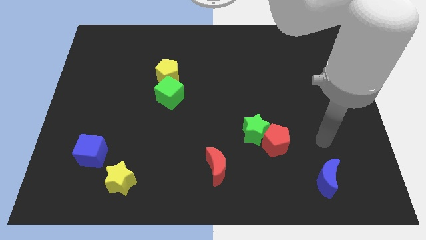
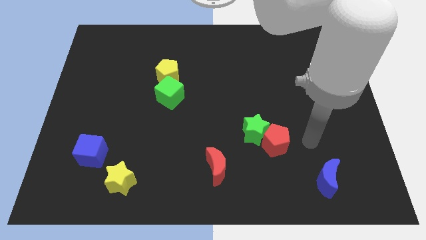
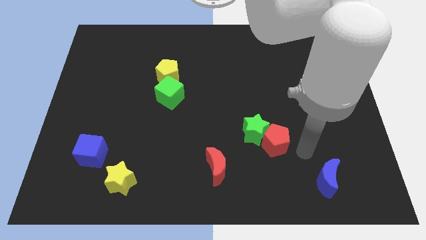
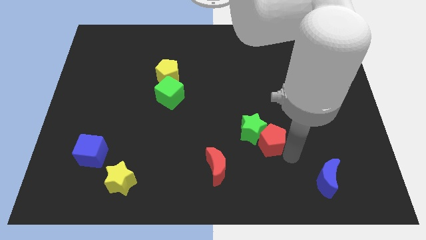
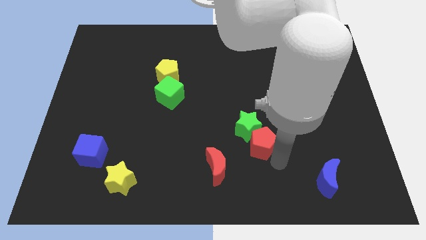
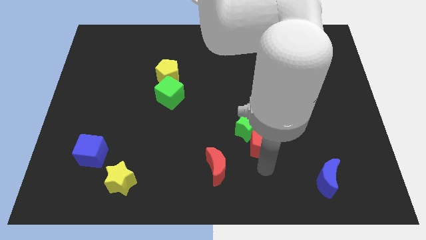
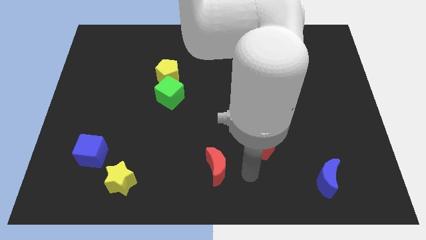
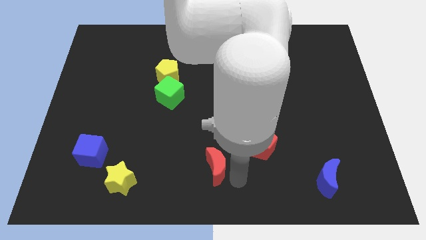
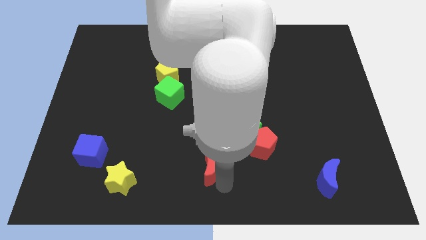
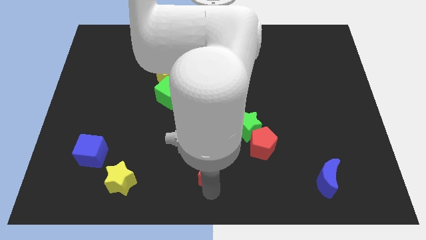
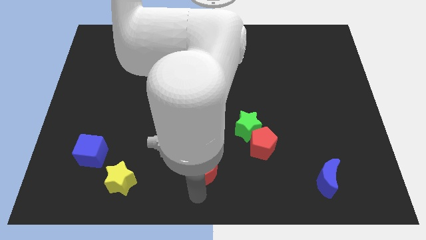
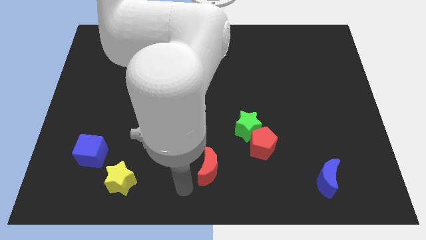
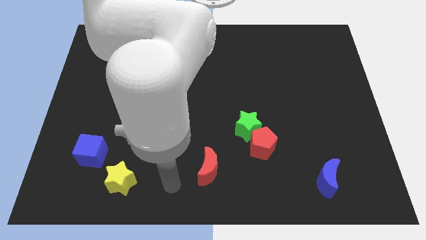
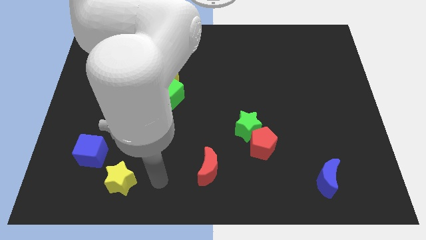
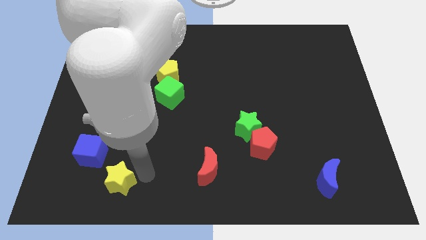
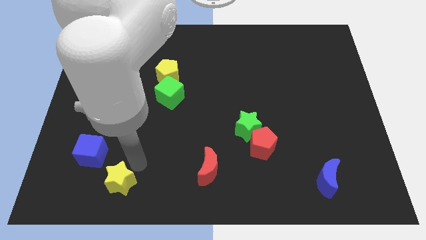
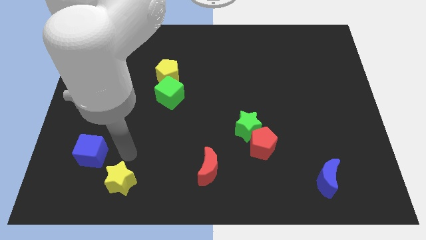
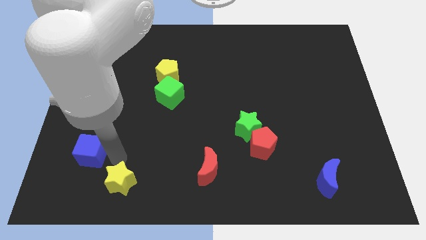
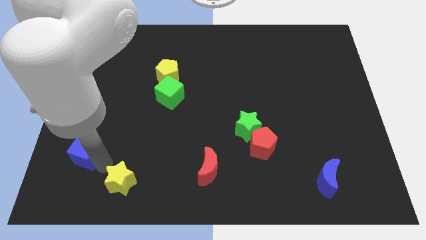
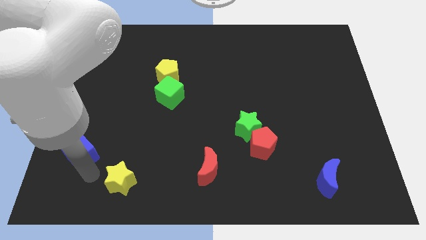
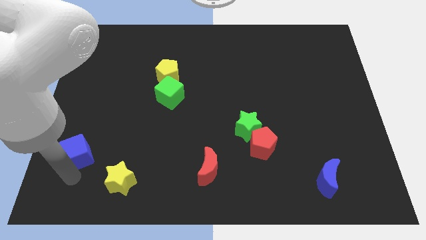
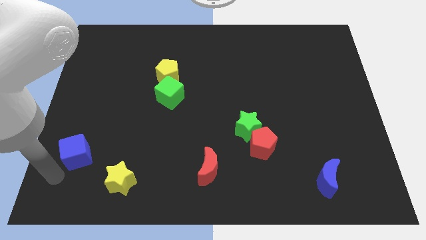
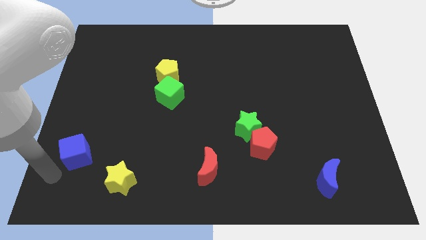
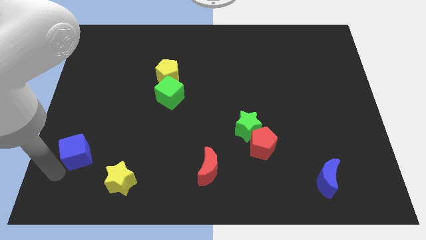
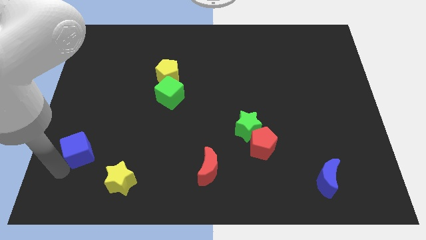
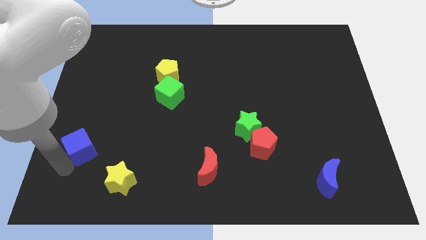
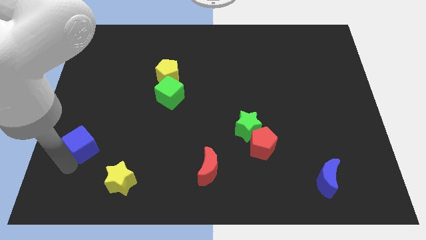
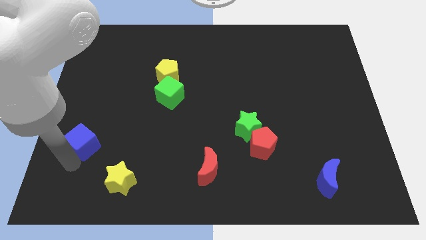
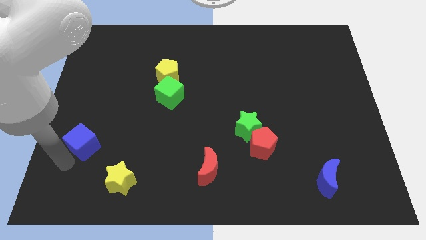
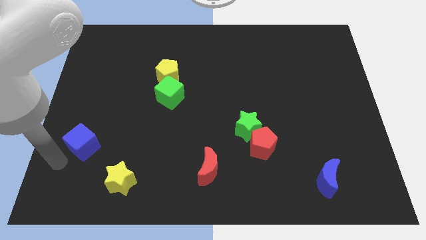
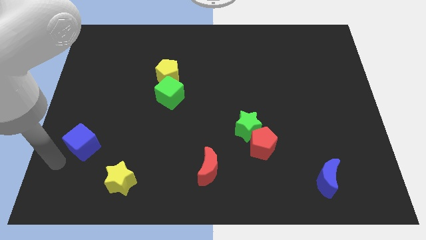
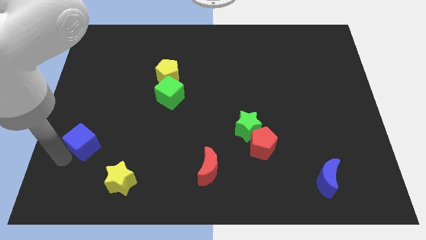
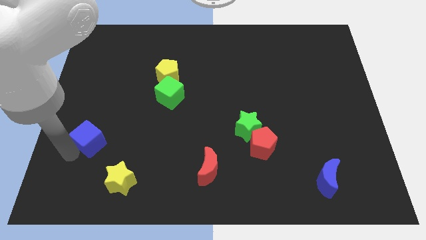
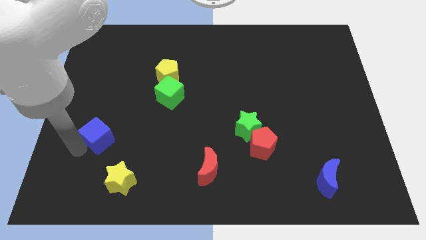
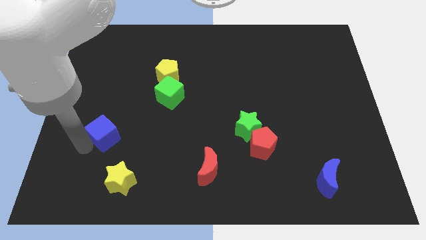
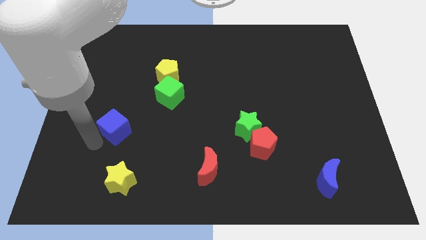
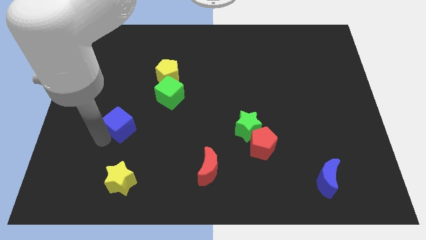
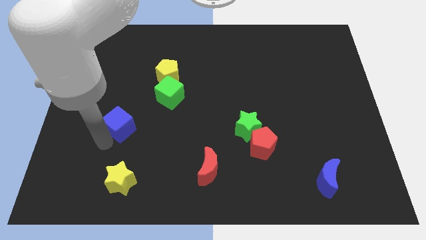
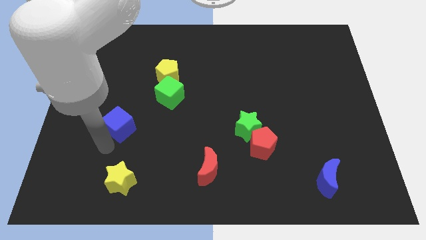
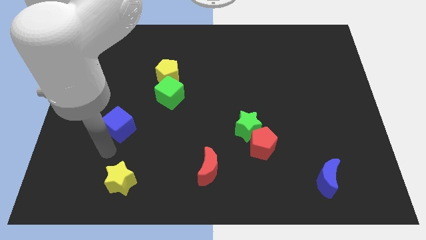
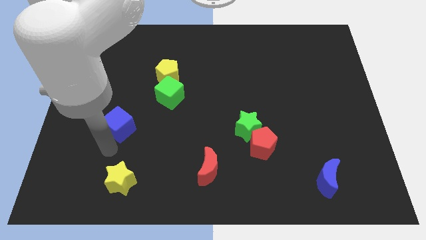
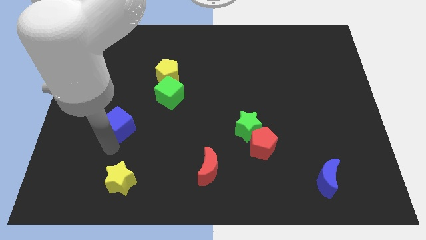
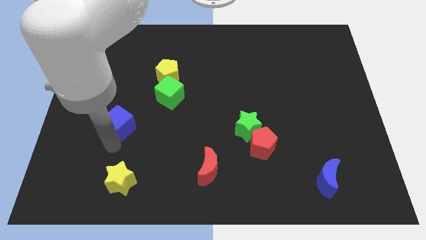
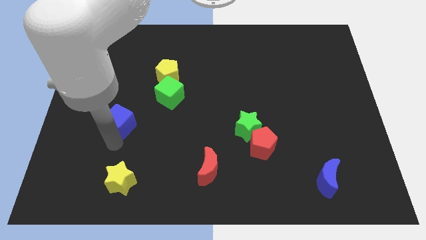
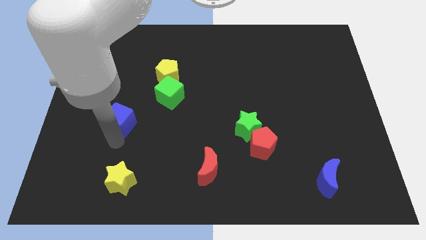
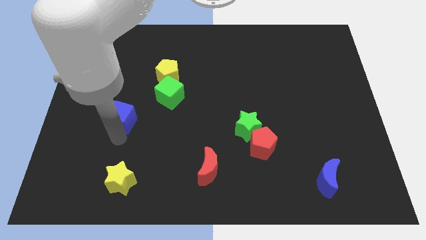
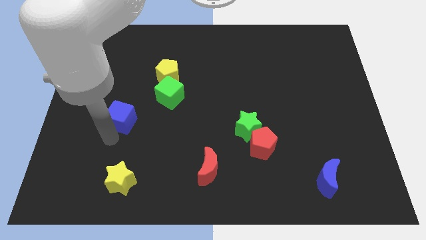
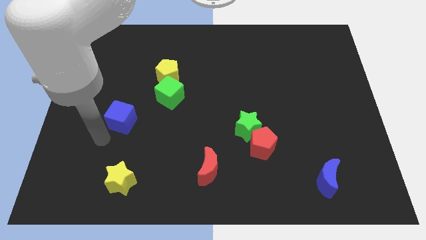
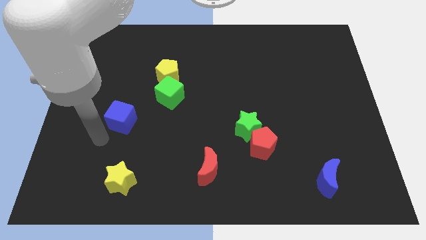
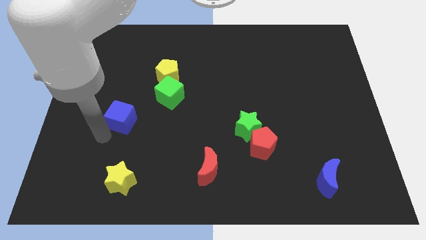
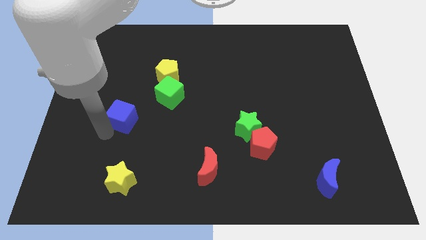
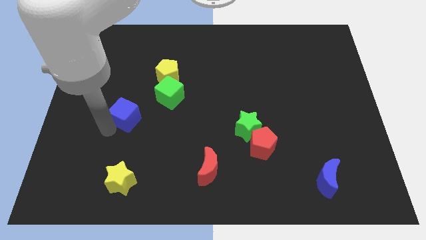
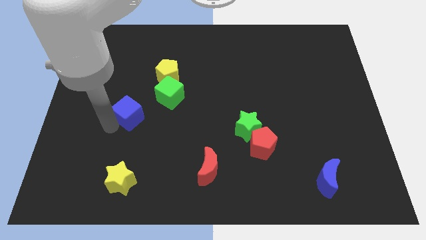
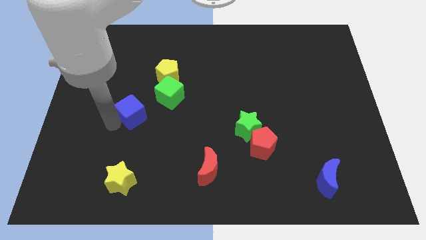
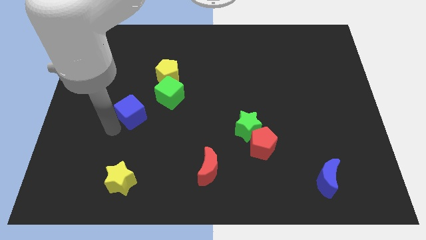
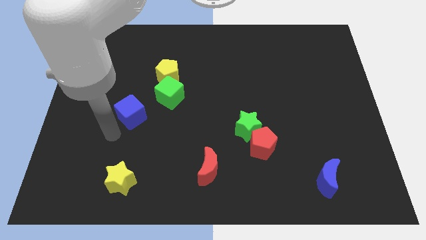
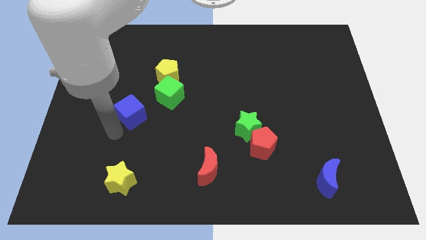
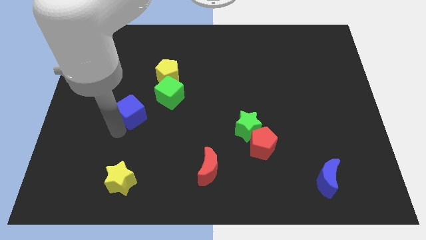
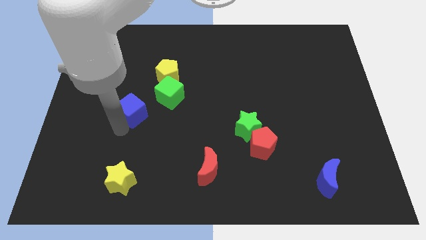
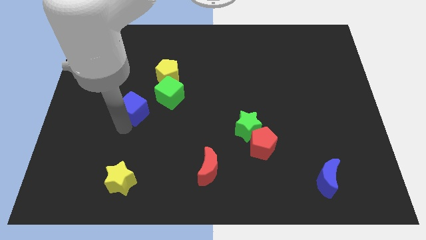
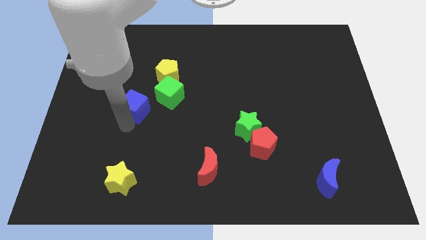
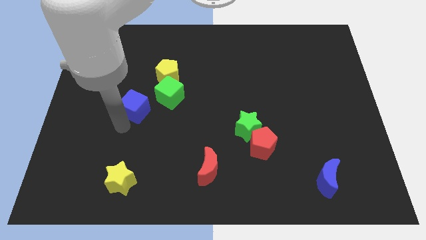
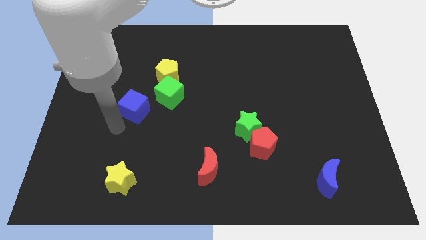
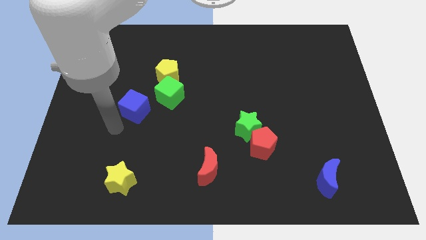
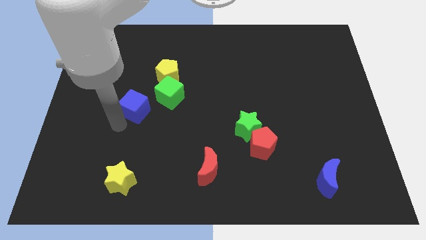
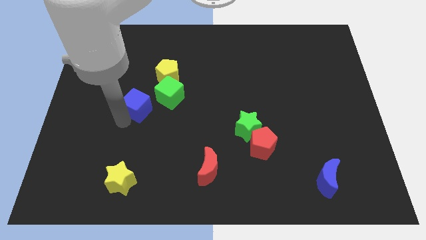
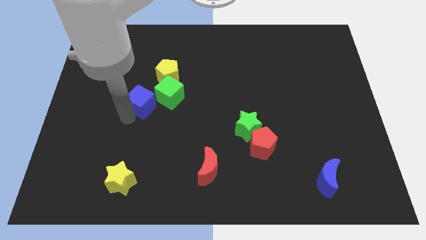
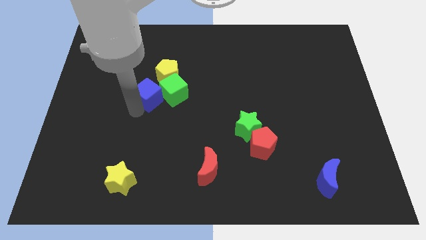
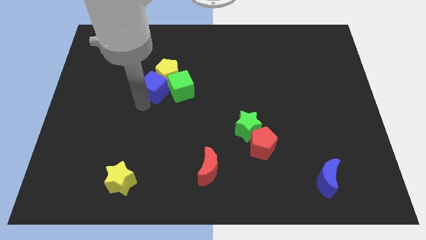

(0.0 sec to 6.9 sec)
slide the blue cube to the yellow pentagon

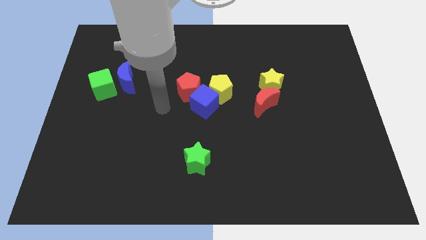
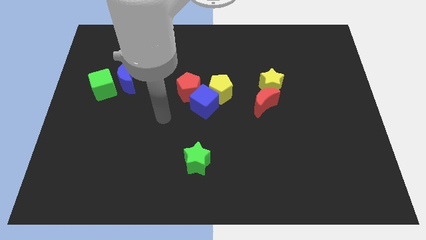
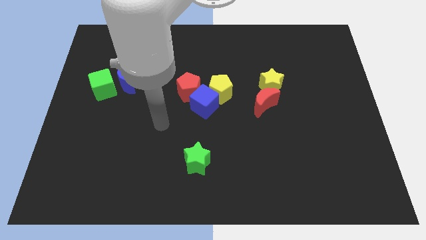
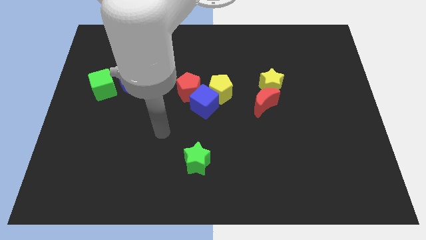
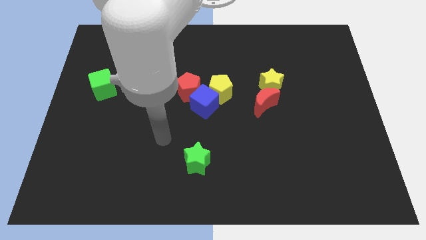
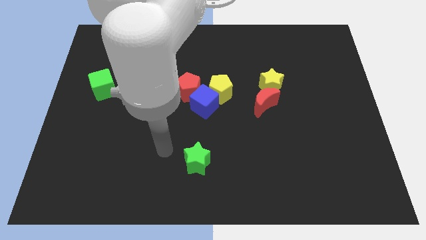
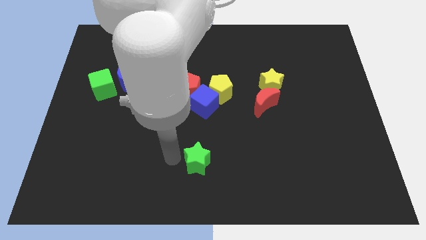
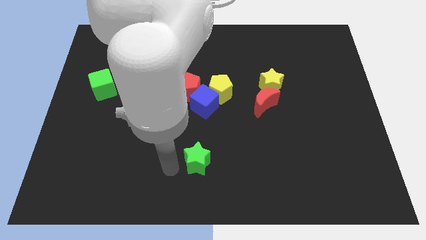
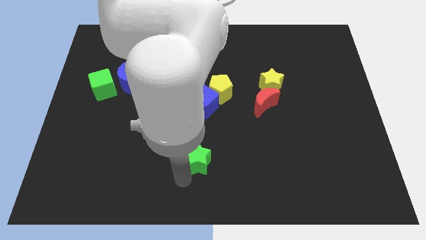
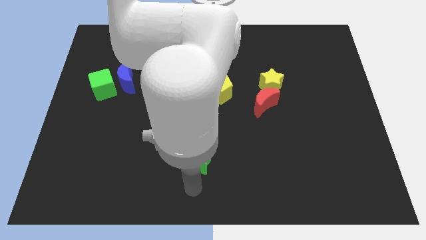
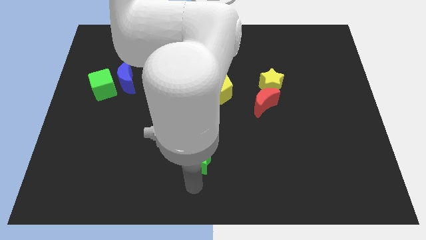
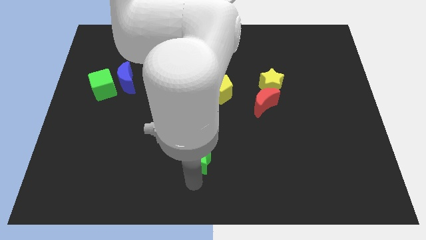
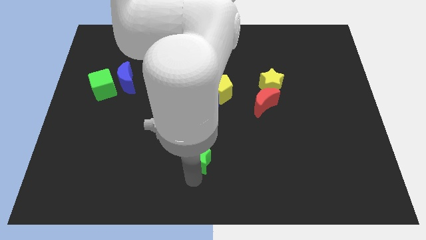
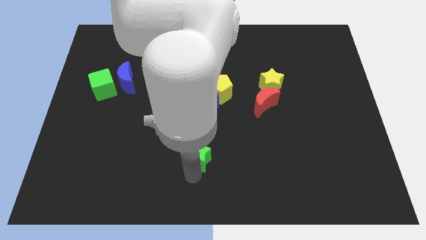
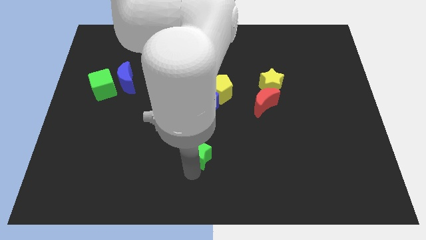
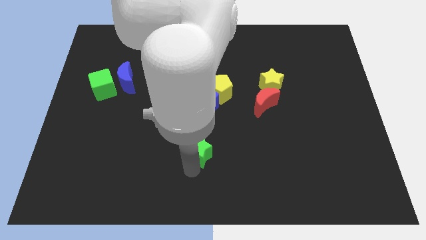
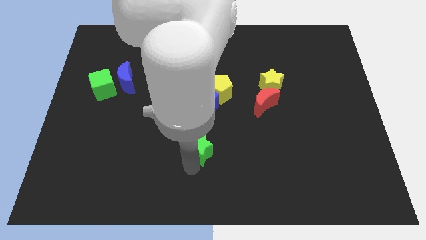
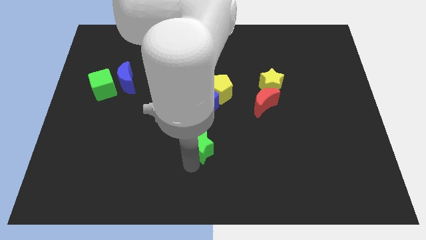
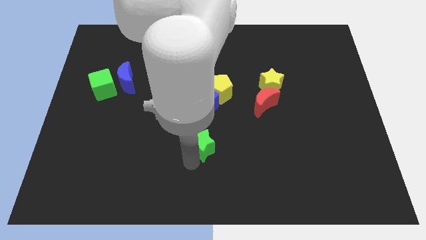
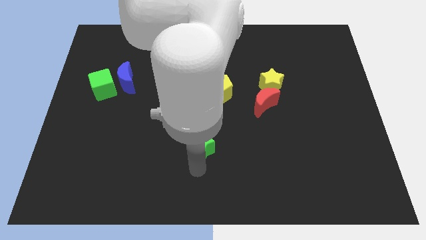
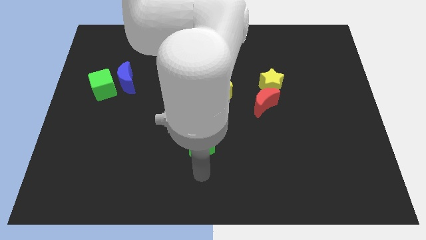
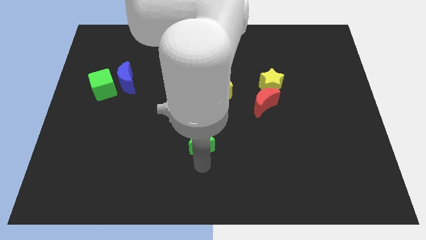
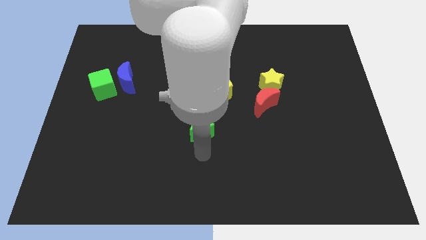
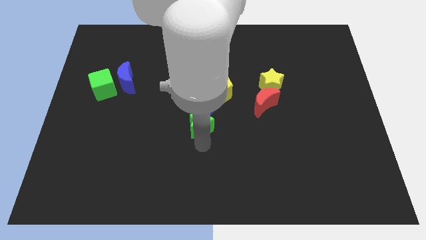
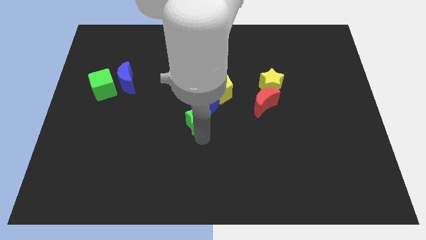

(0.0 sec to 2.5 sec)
push the green star to the blue cube
